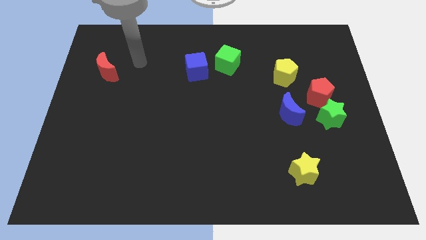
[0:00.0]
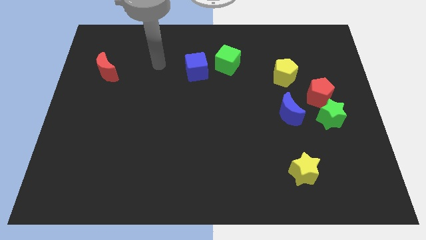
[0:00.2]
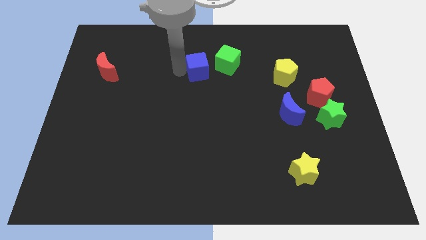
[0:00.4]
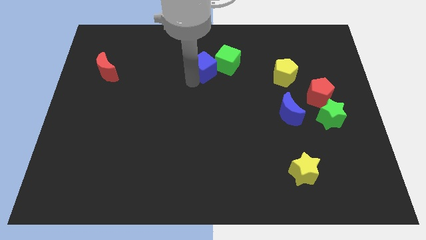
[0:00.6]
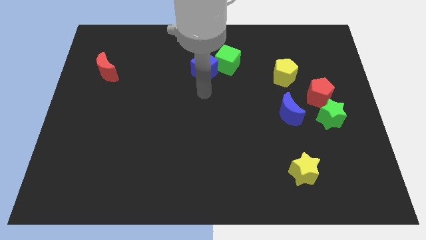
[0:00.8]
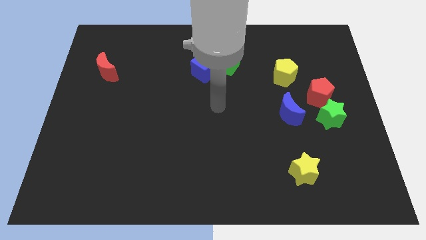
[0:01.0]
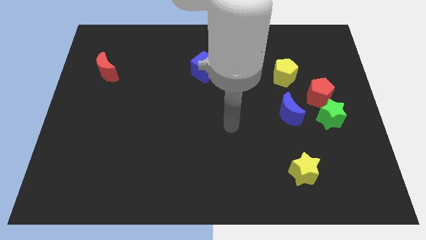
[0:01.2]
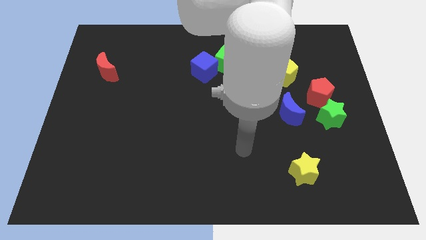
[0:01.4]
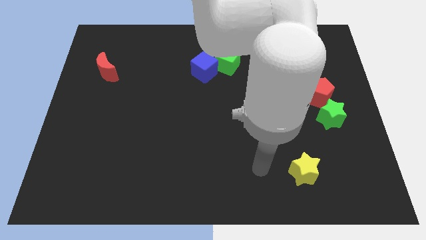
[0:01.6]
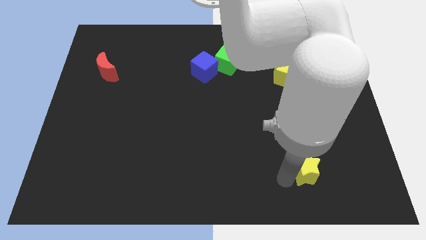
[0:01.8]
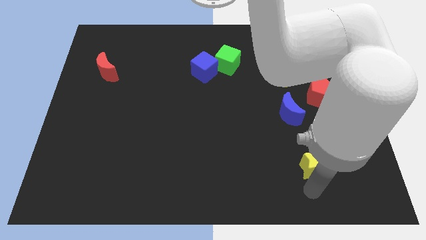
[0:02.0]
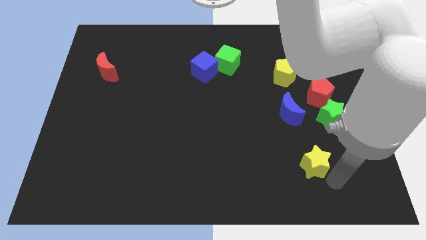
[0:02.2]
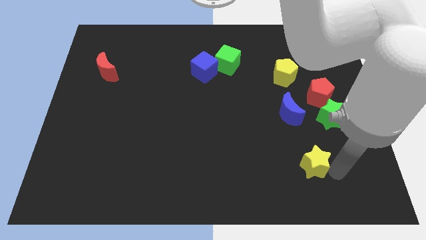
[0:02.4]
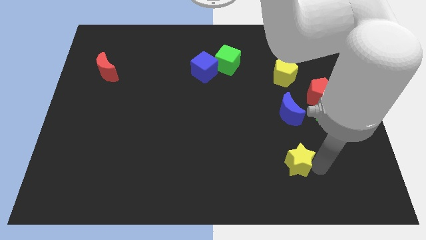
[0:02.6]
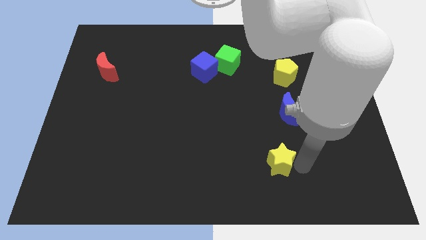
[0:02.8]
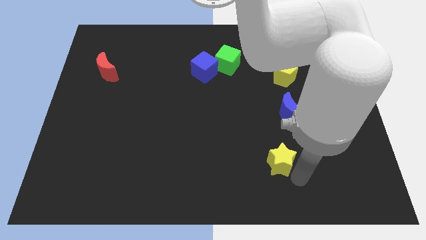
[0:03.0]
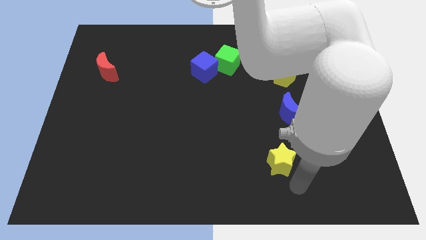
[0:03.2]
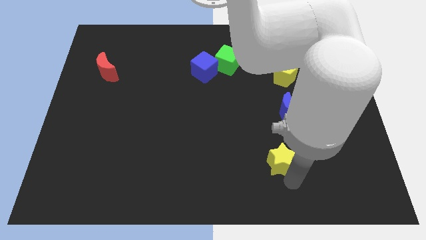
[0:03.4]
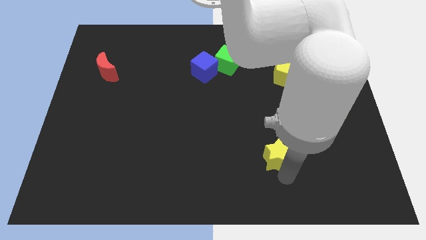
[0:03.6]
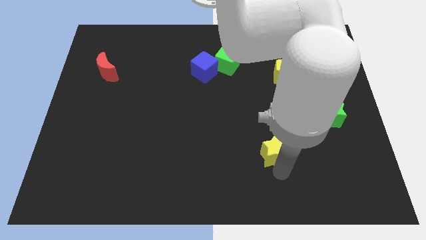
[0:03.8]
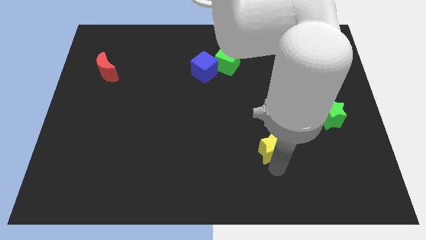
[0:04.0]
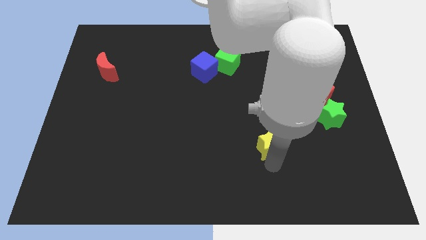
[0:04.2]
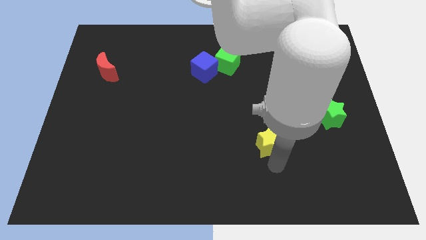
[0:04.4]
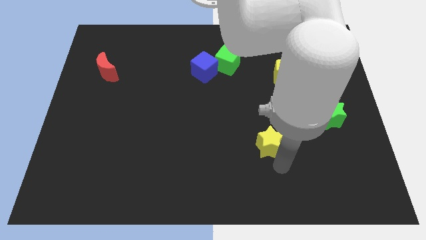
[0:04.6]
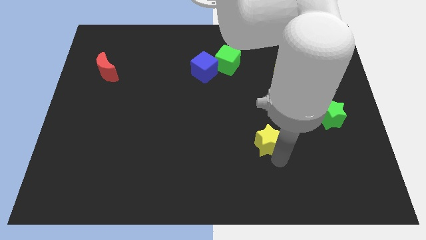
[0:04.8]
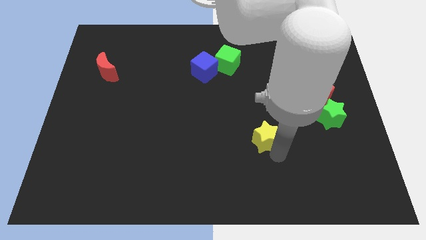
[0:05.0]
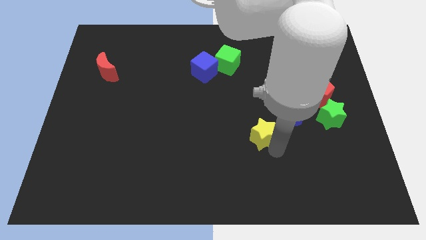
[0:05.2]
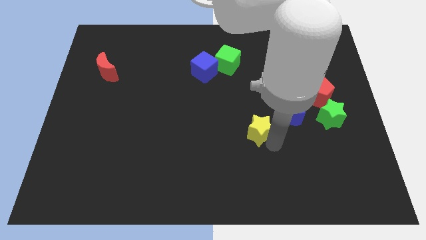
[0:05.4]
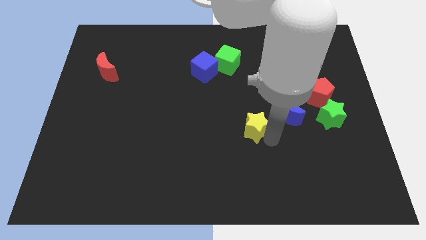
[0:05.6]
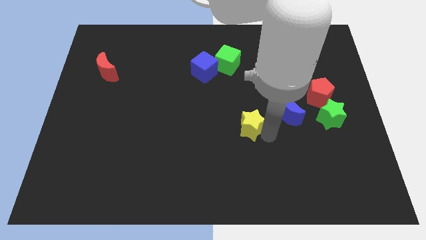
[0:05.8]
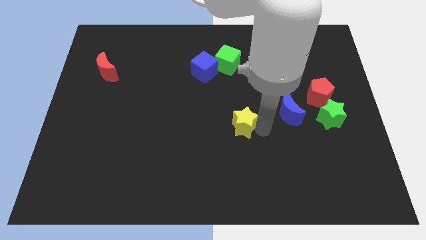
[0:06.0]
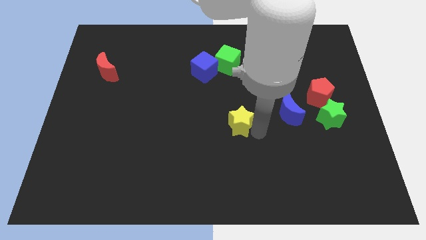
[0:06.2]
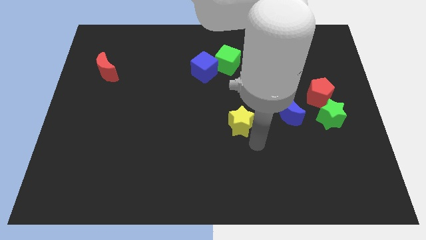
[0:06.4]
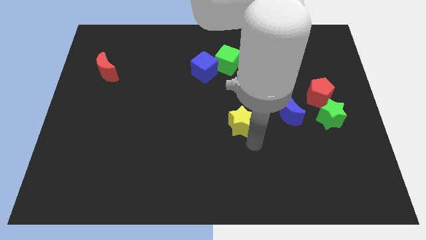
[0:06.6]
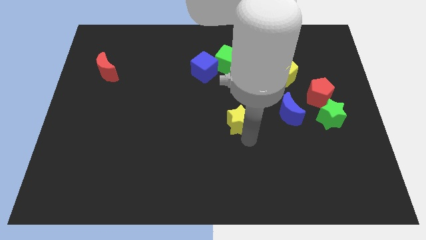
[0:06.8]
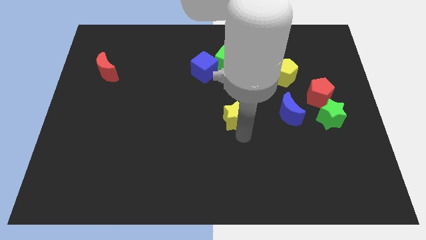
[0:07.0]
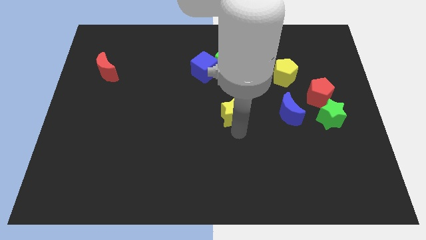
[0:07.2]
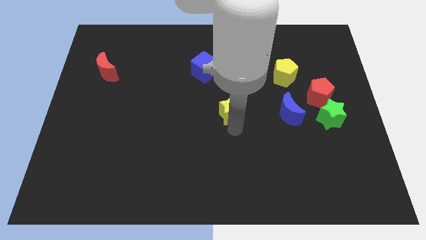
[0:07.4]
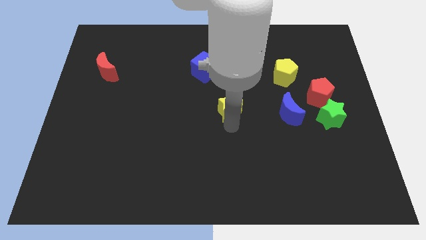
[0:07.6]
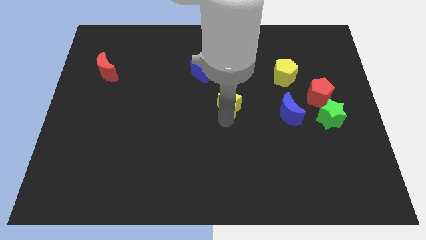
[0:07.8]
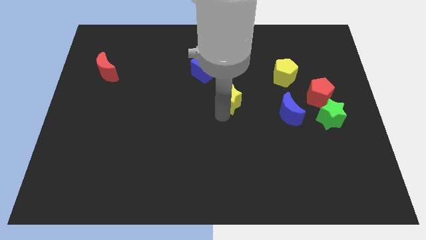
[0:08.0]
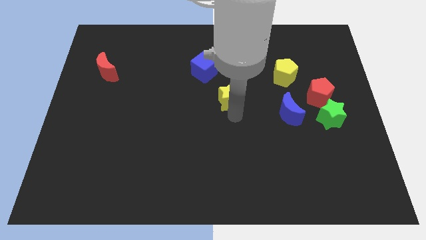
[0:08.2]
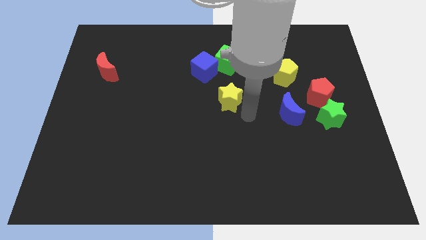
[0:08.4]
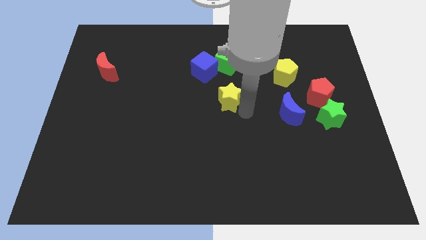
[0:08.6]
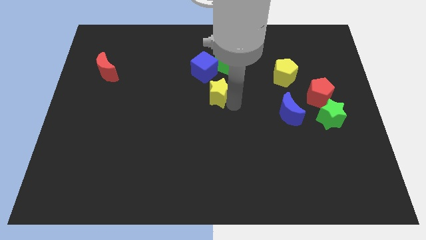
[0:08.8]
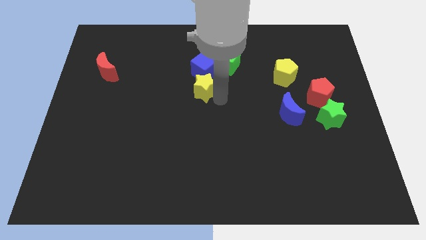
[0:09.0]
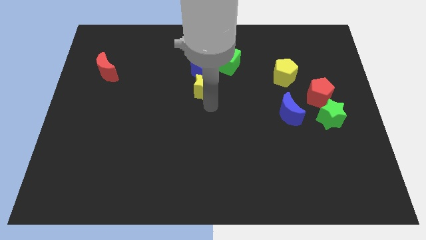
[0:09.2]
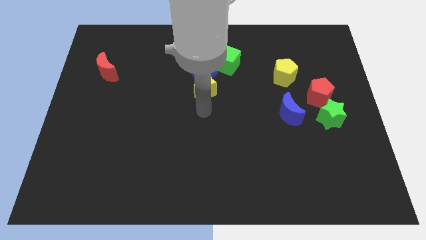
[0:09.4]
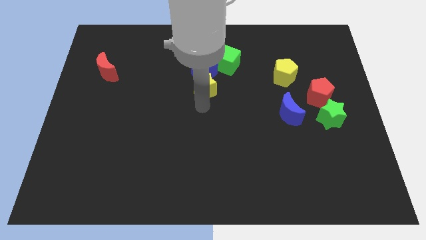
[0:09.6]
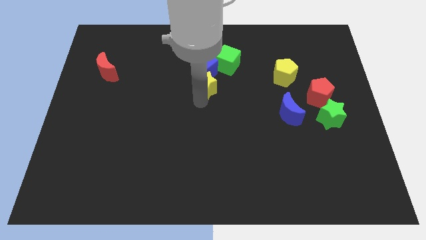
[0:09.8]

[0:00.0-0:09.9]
slide the yellow star to the blue cube

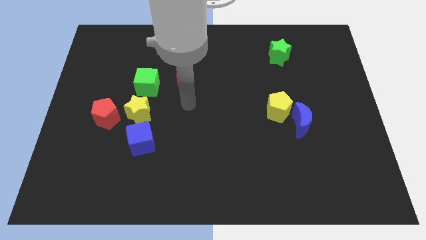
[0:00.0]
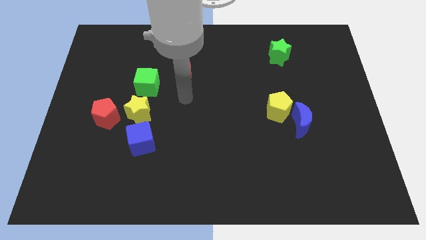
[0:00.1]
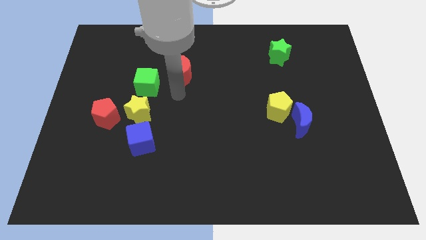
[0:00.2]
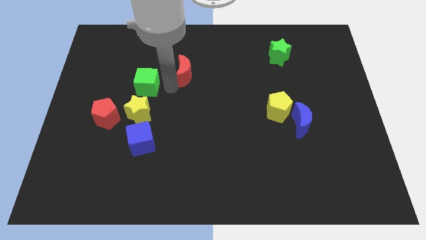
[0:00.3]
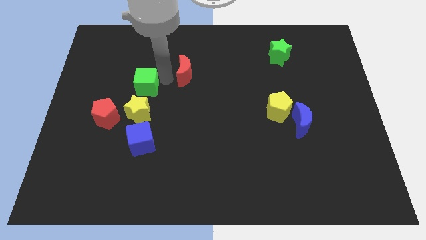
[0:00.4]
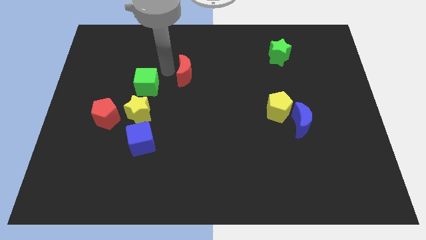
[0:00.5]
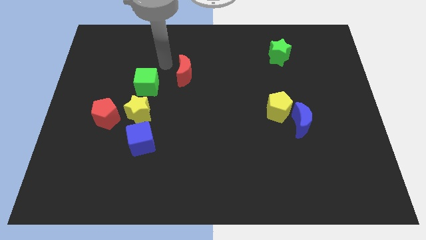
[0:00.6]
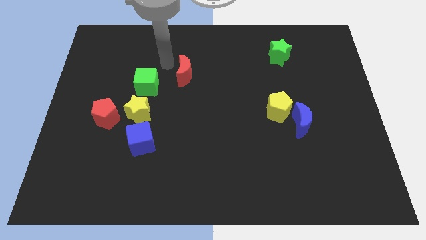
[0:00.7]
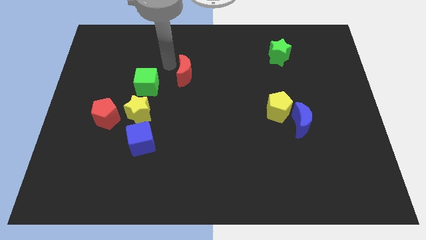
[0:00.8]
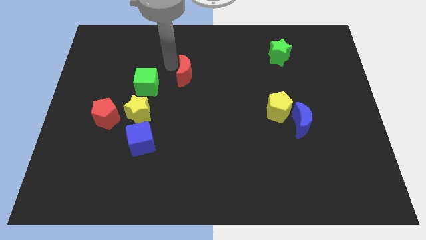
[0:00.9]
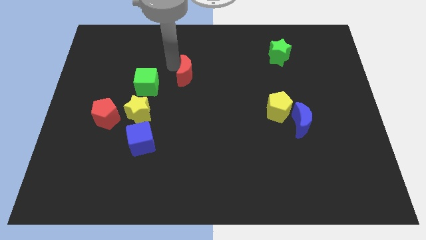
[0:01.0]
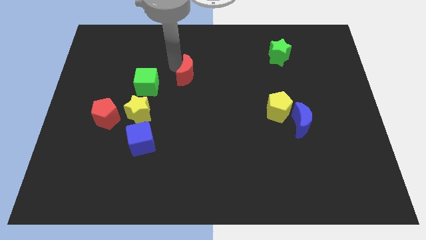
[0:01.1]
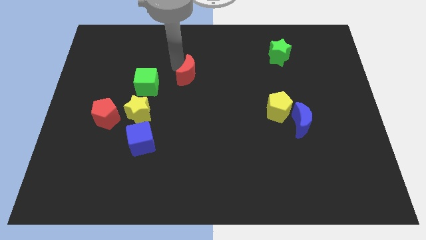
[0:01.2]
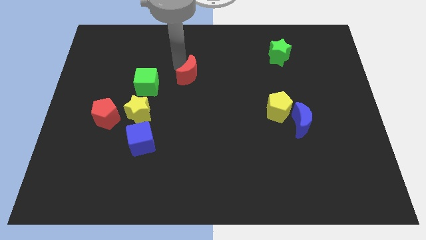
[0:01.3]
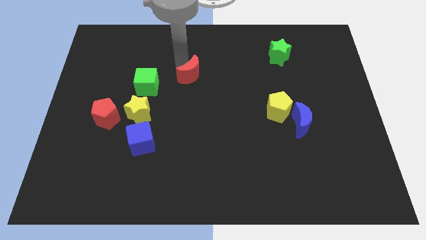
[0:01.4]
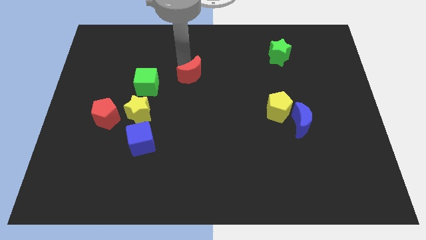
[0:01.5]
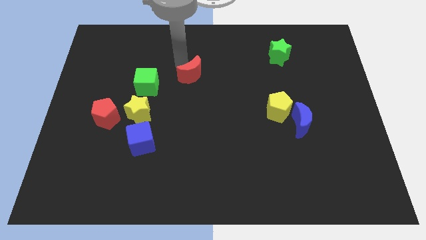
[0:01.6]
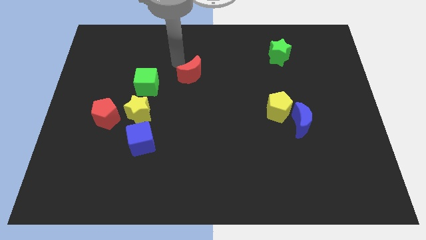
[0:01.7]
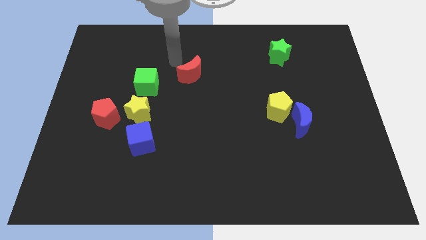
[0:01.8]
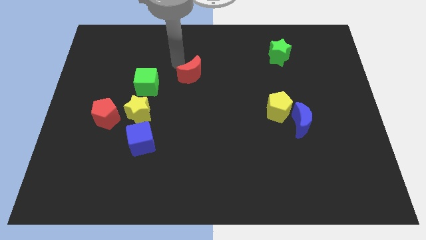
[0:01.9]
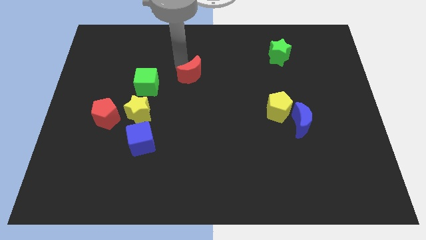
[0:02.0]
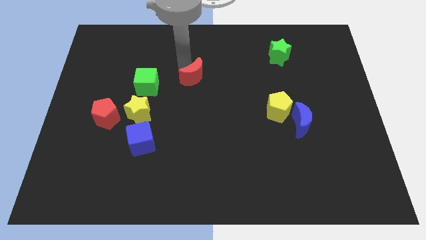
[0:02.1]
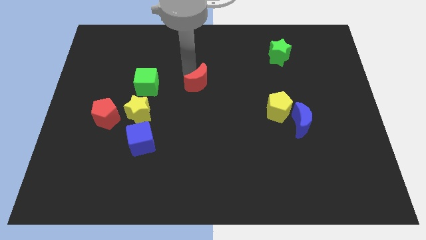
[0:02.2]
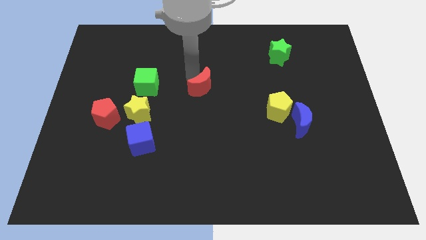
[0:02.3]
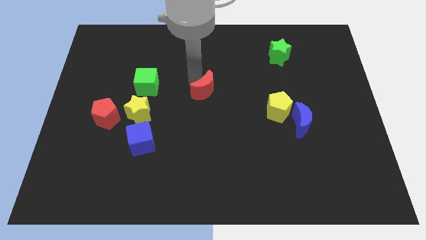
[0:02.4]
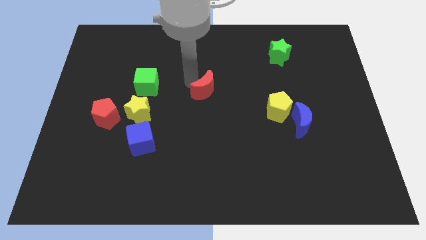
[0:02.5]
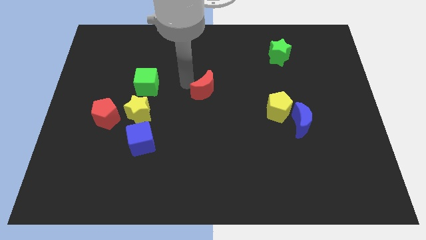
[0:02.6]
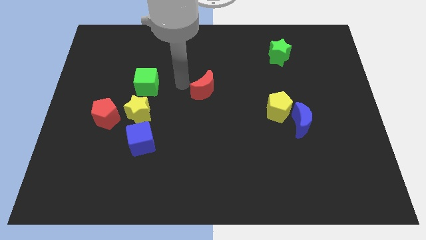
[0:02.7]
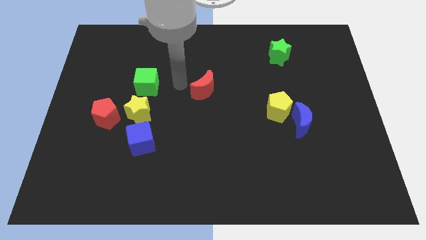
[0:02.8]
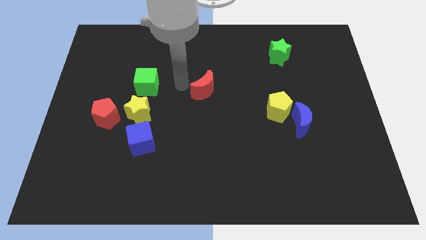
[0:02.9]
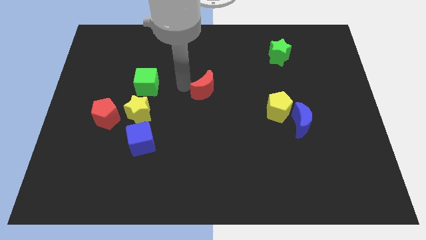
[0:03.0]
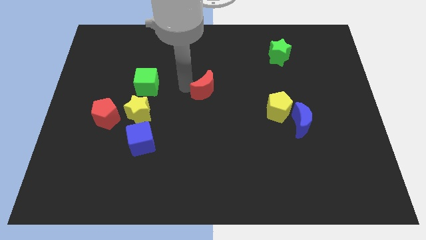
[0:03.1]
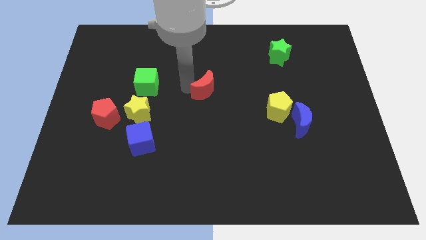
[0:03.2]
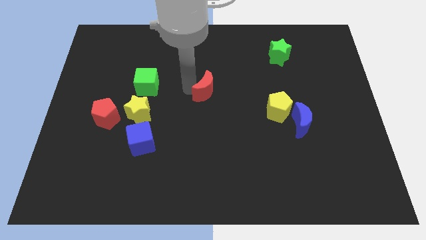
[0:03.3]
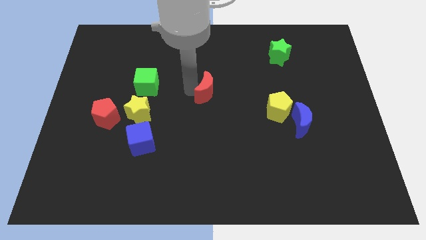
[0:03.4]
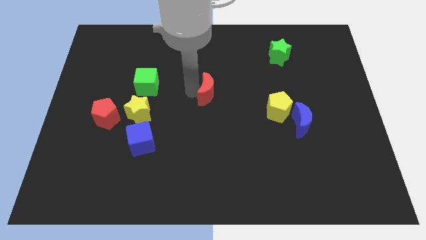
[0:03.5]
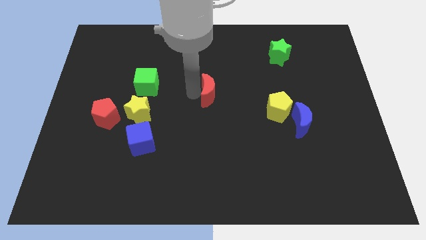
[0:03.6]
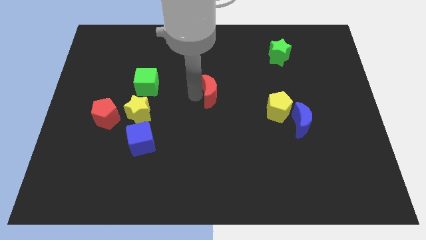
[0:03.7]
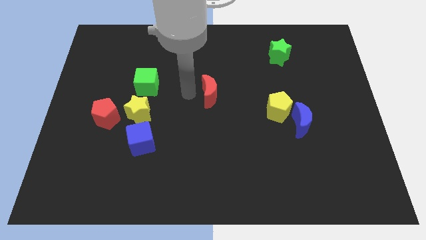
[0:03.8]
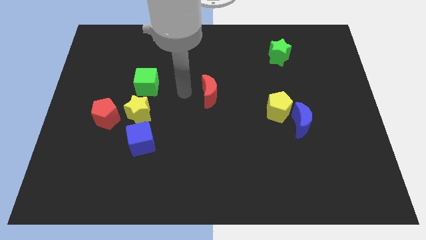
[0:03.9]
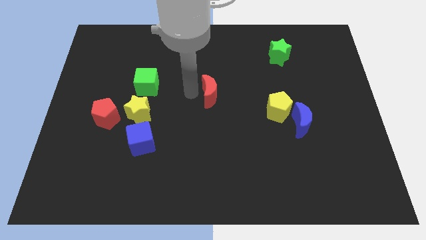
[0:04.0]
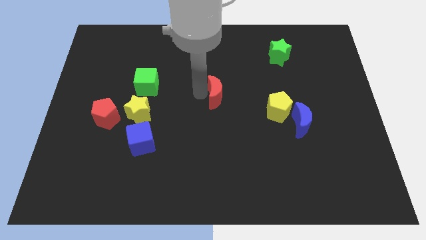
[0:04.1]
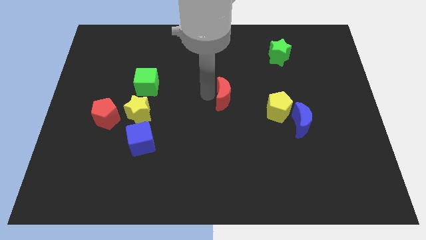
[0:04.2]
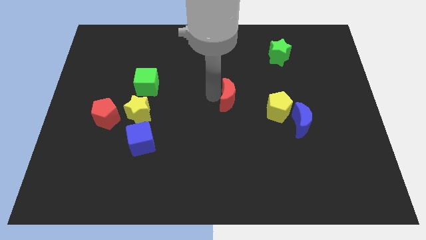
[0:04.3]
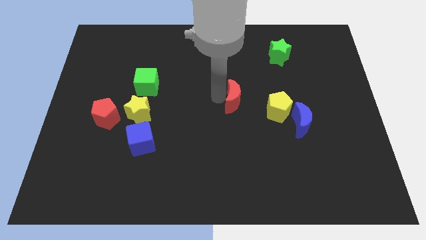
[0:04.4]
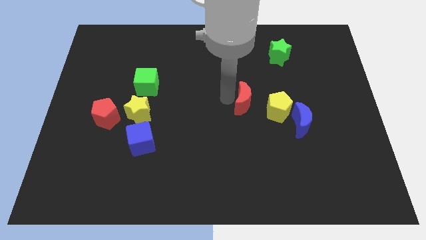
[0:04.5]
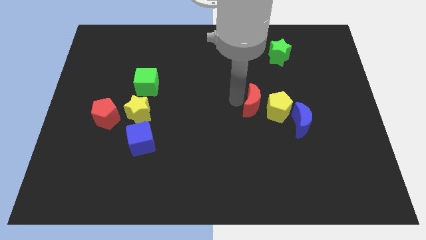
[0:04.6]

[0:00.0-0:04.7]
push the red moon to the yellow pentagon
